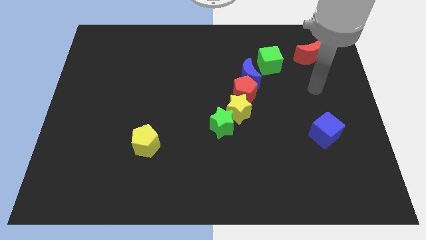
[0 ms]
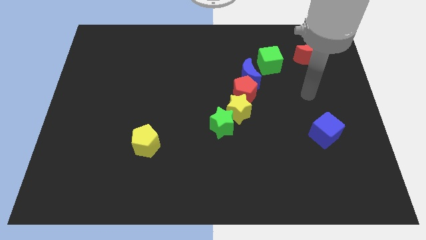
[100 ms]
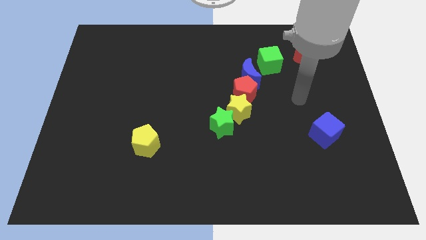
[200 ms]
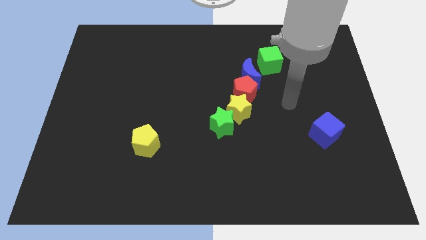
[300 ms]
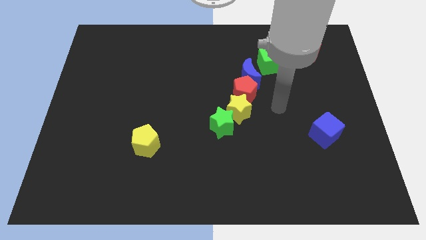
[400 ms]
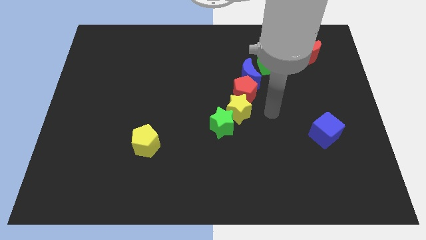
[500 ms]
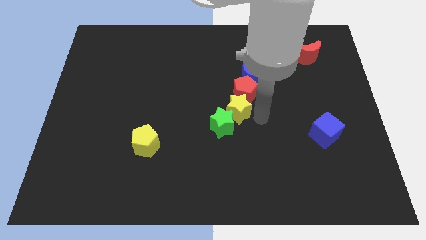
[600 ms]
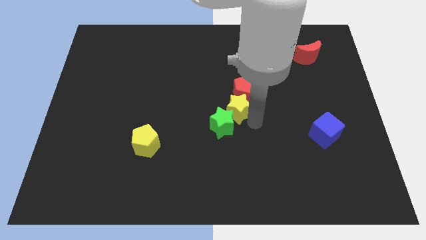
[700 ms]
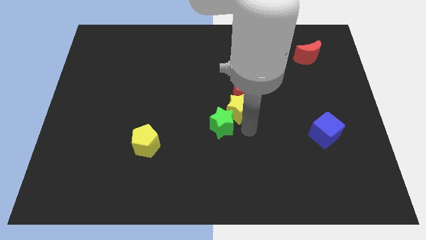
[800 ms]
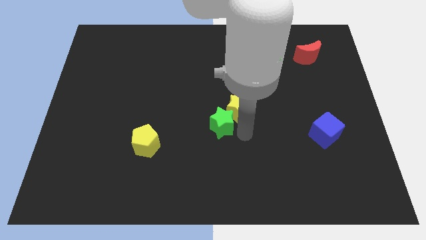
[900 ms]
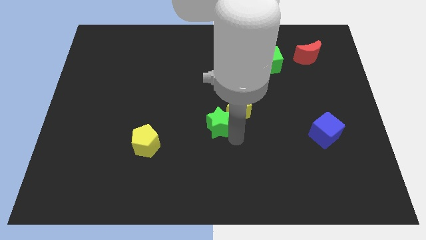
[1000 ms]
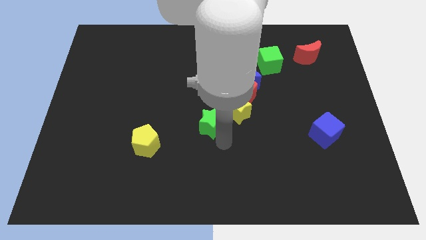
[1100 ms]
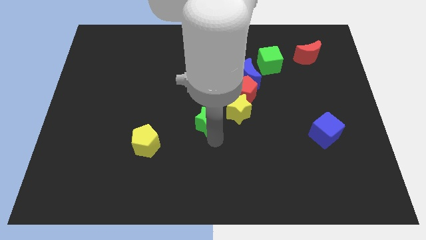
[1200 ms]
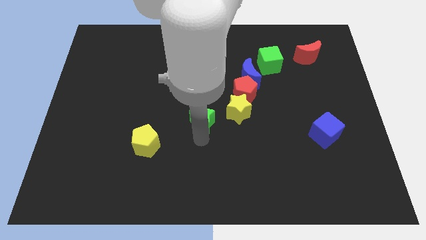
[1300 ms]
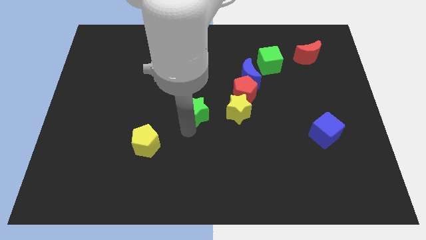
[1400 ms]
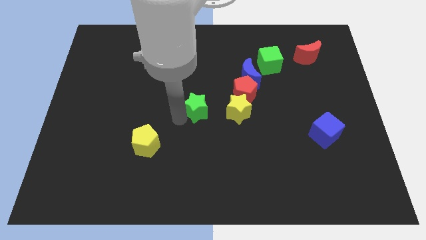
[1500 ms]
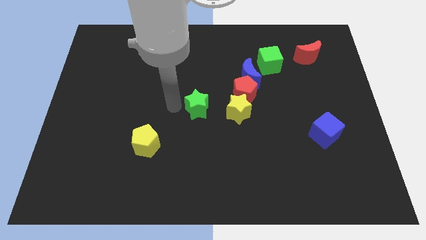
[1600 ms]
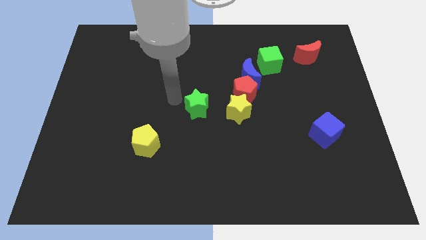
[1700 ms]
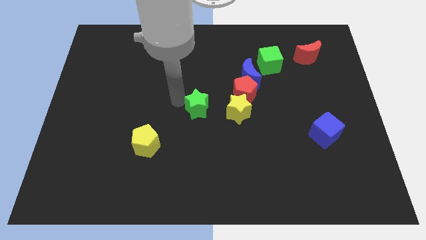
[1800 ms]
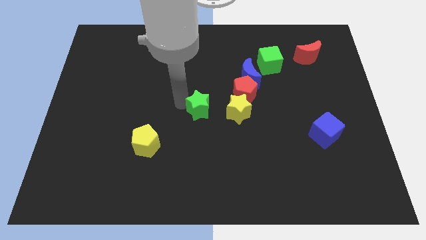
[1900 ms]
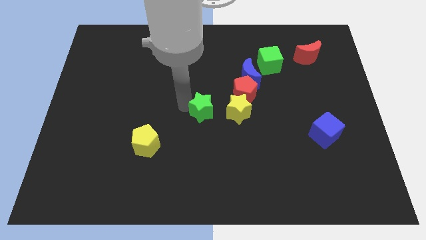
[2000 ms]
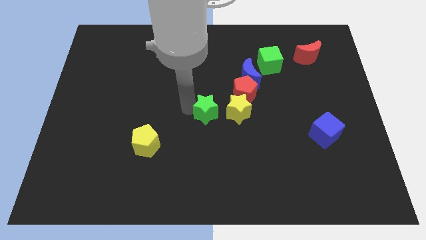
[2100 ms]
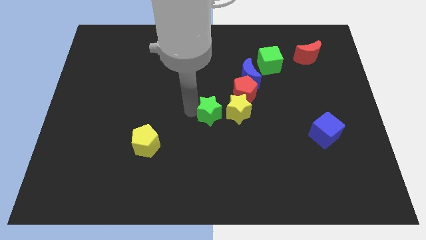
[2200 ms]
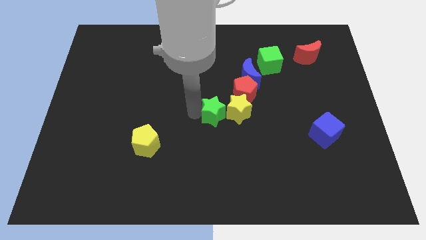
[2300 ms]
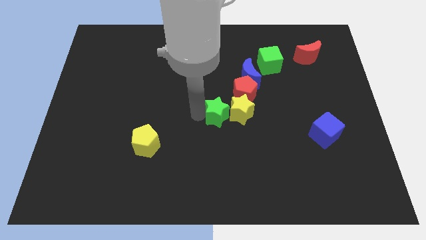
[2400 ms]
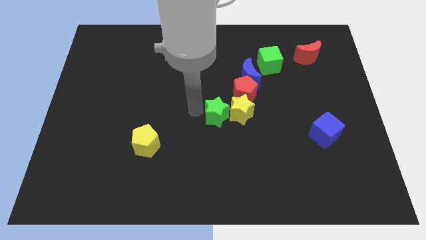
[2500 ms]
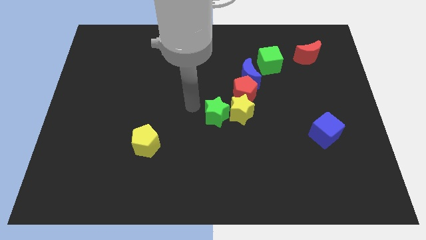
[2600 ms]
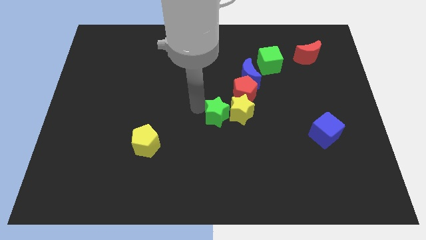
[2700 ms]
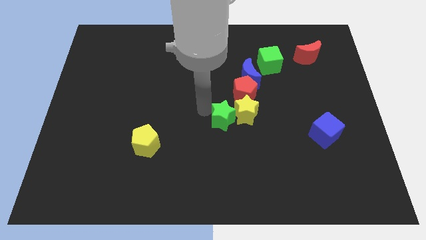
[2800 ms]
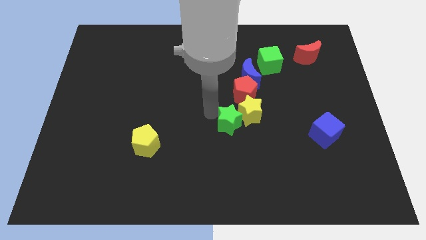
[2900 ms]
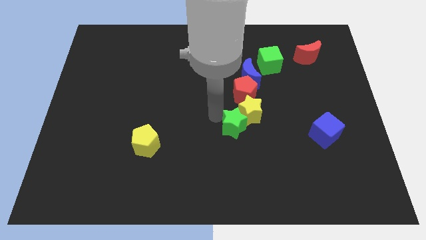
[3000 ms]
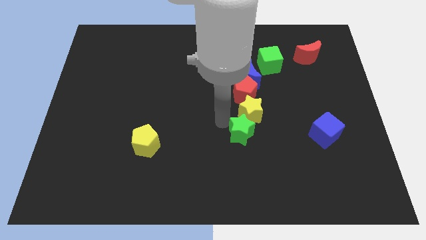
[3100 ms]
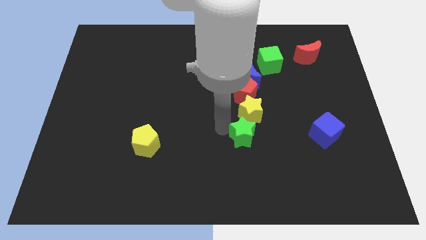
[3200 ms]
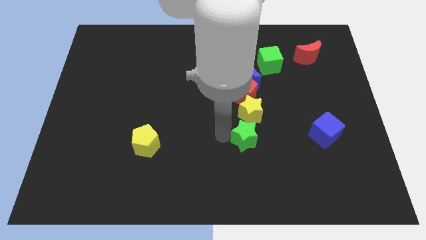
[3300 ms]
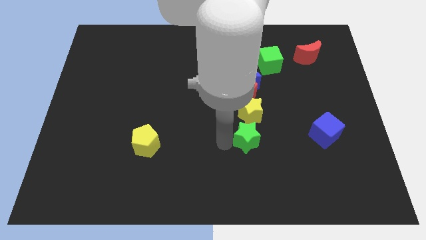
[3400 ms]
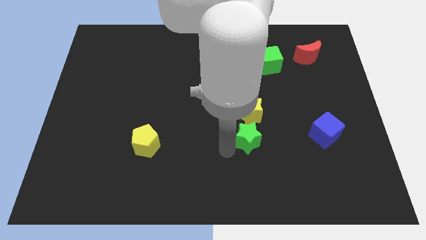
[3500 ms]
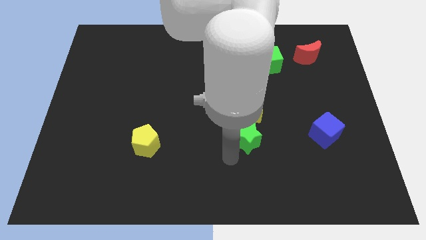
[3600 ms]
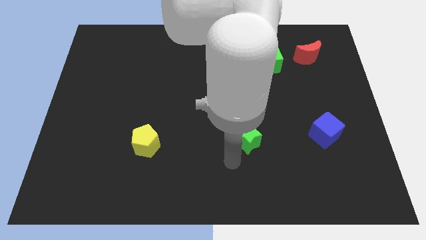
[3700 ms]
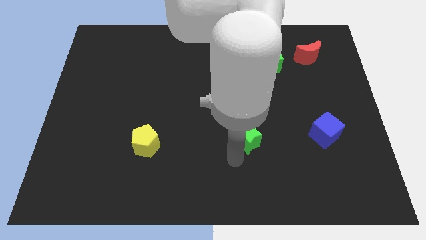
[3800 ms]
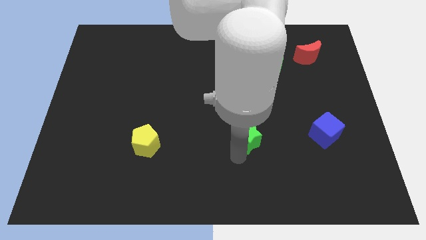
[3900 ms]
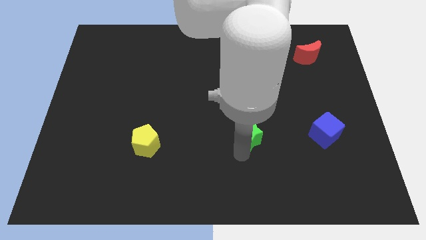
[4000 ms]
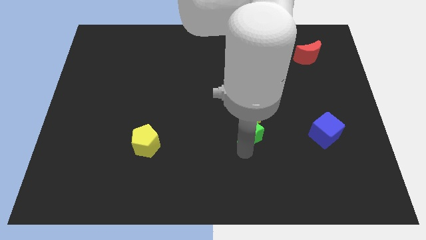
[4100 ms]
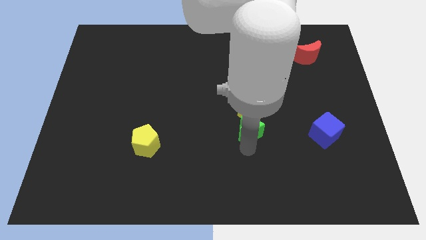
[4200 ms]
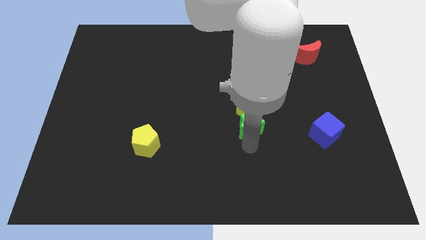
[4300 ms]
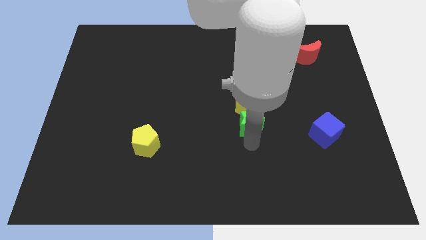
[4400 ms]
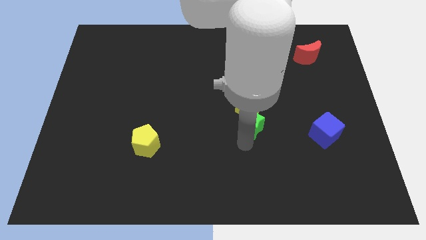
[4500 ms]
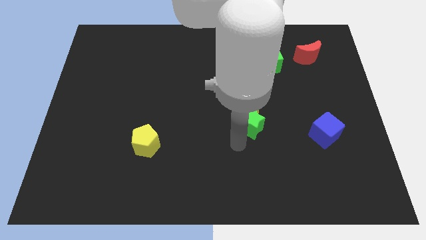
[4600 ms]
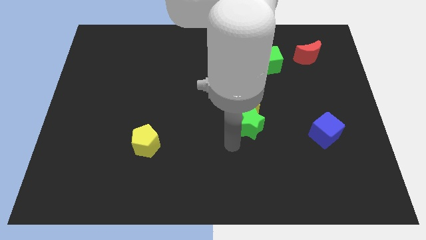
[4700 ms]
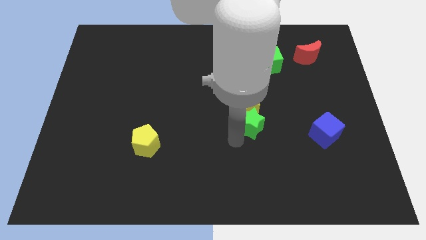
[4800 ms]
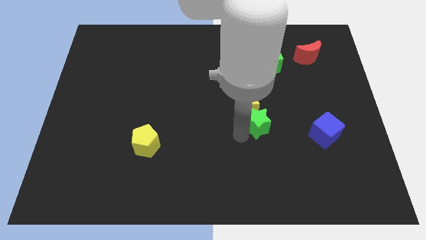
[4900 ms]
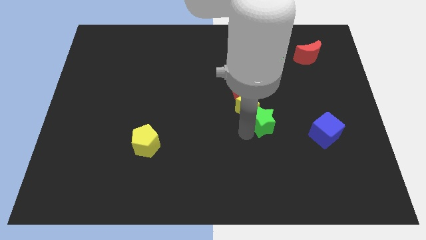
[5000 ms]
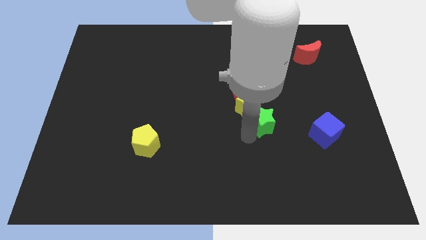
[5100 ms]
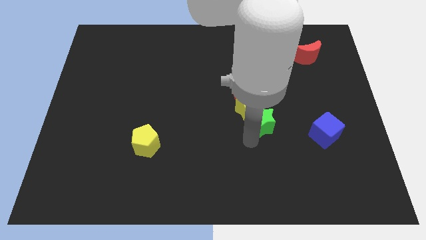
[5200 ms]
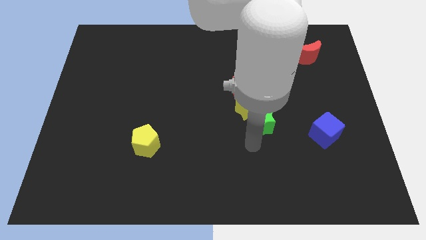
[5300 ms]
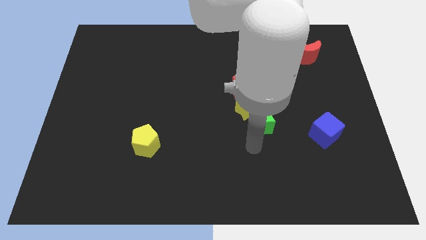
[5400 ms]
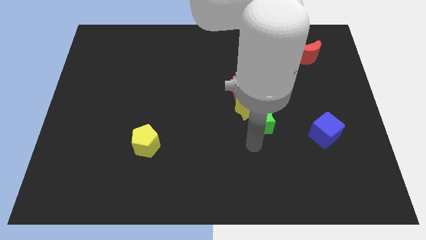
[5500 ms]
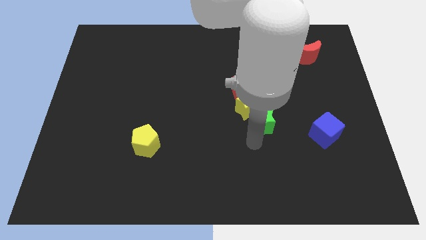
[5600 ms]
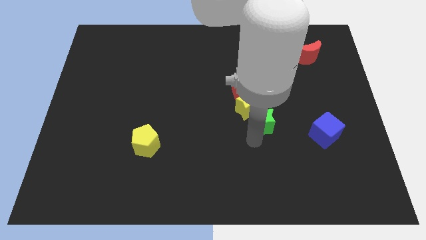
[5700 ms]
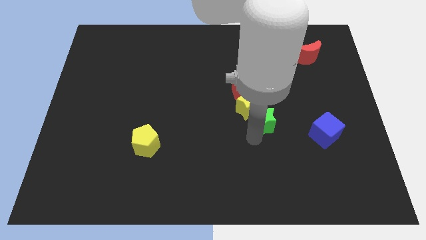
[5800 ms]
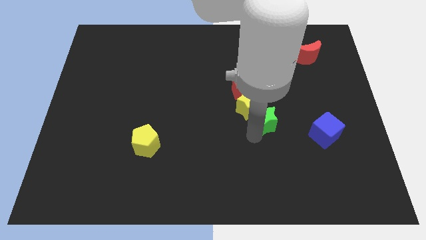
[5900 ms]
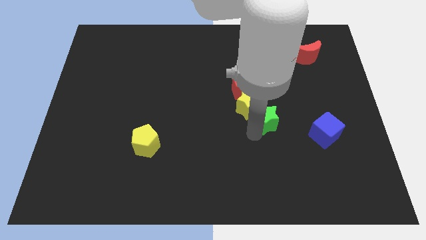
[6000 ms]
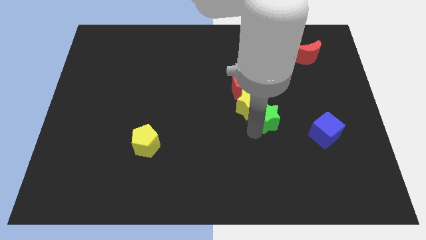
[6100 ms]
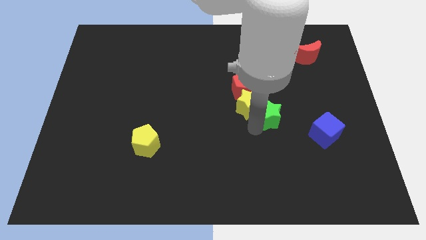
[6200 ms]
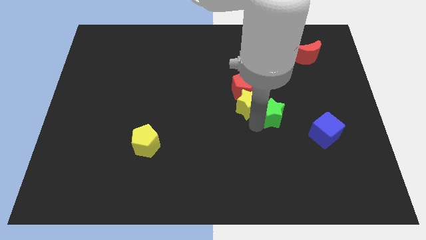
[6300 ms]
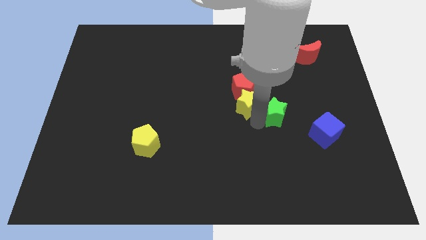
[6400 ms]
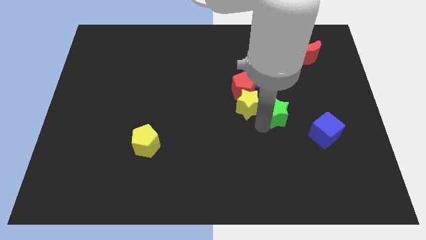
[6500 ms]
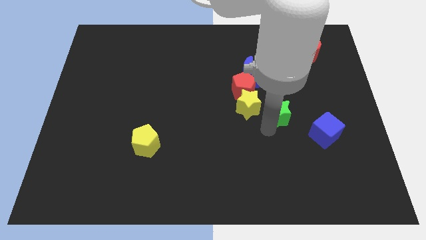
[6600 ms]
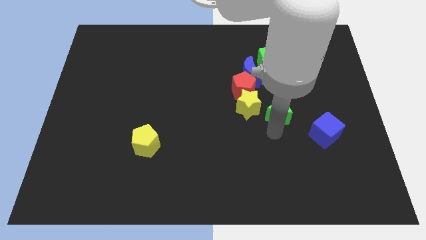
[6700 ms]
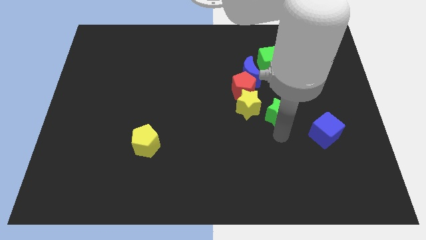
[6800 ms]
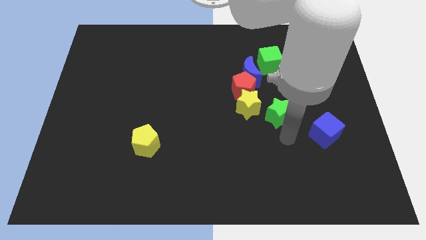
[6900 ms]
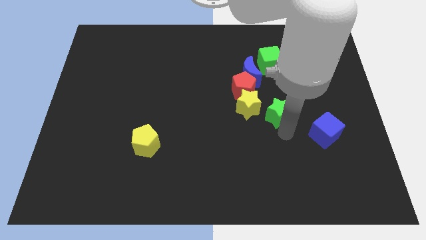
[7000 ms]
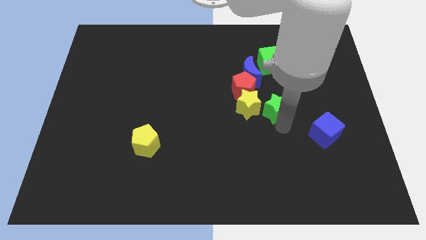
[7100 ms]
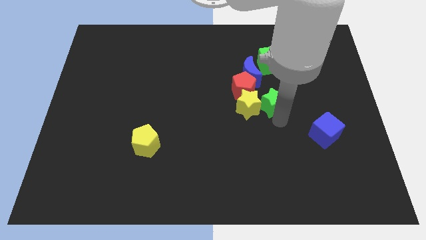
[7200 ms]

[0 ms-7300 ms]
slide the green star to the top right of the yellow star

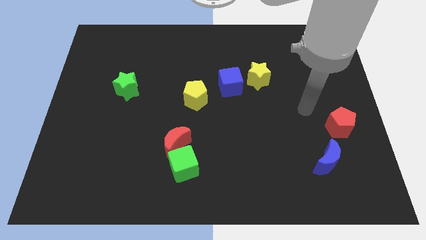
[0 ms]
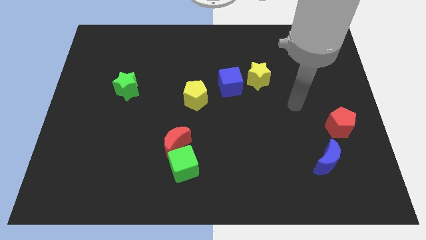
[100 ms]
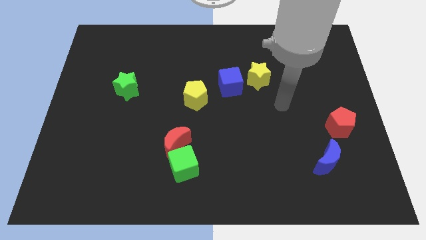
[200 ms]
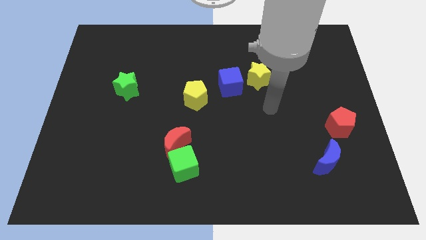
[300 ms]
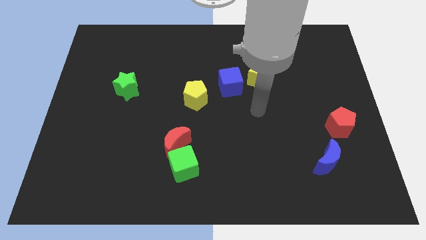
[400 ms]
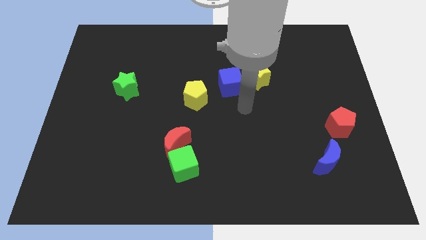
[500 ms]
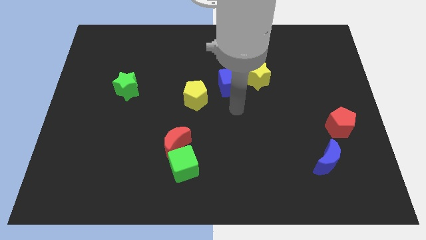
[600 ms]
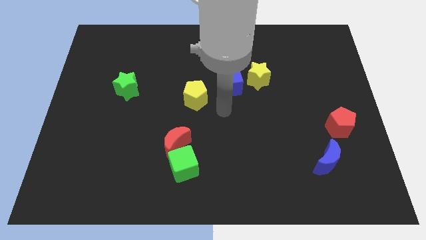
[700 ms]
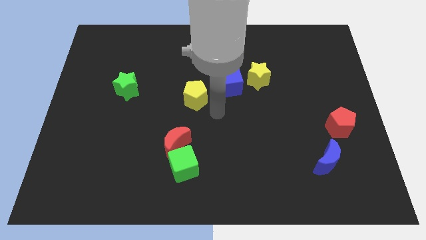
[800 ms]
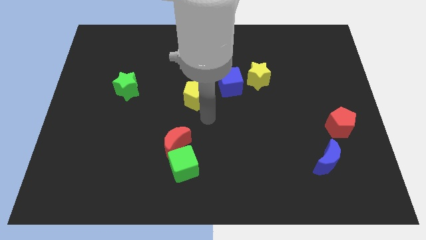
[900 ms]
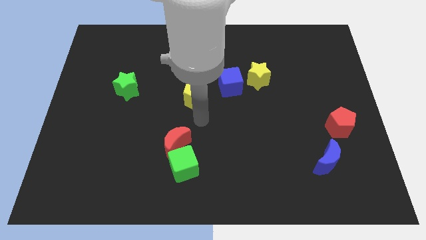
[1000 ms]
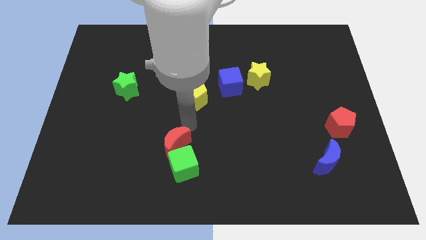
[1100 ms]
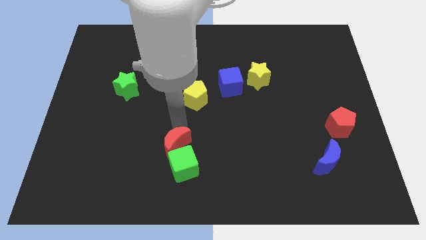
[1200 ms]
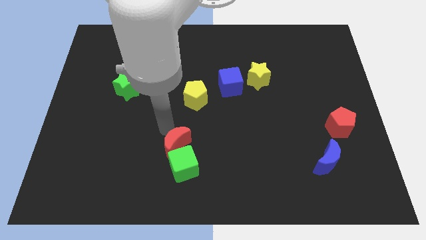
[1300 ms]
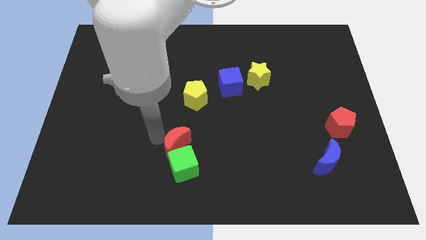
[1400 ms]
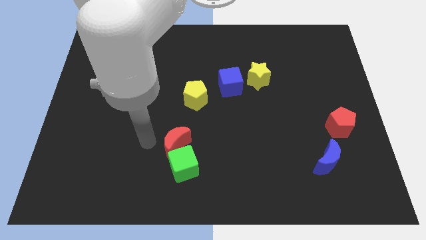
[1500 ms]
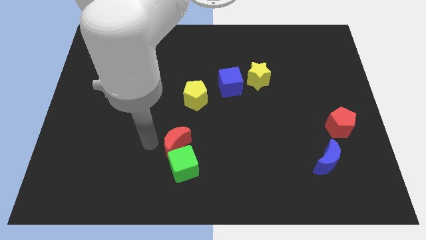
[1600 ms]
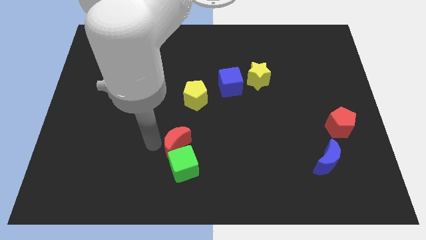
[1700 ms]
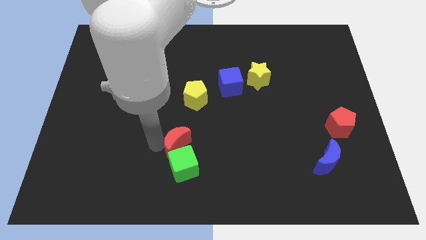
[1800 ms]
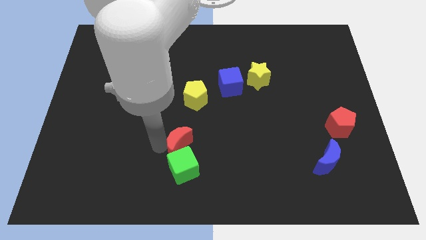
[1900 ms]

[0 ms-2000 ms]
put the red moon to the top right of the green cube
